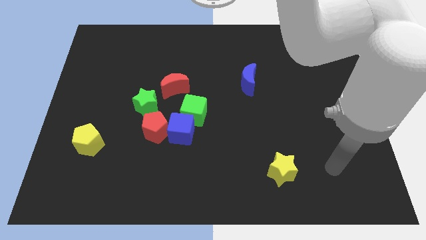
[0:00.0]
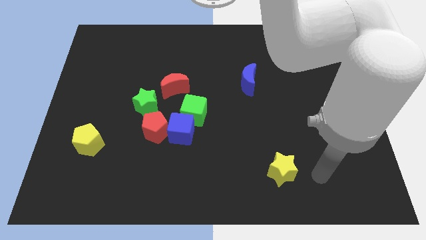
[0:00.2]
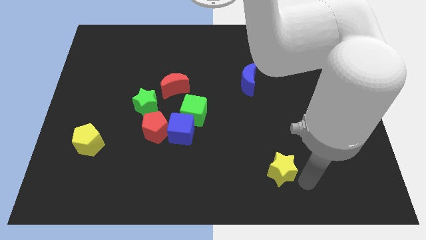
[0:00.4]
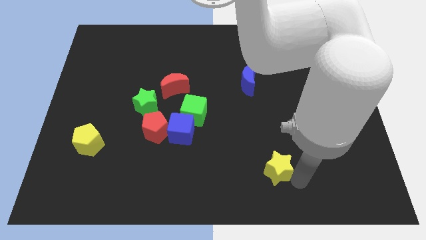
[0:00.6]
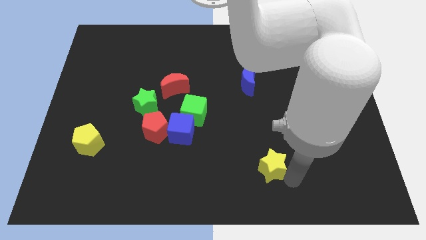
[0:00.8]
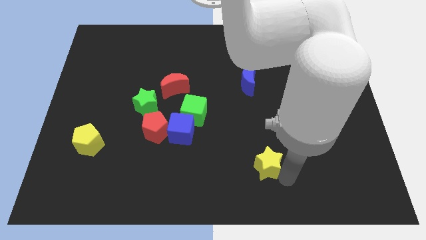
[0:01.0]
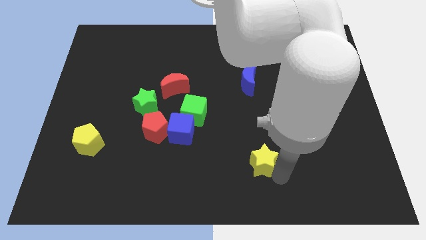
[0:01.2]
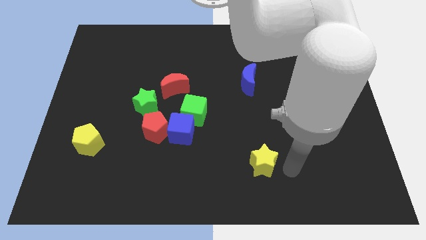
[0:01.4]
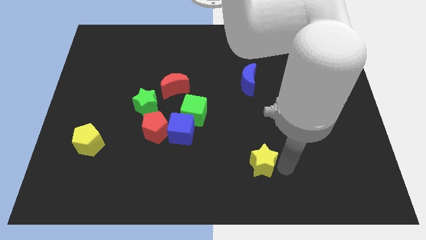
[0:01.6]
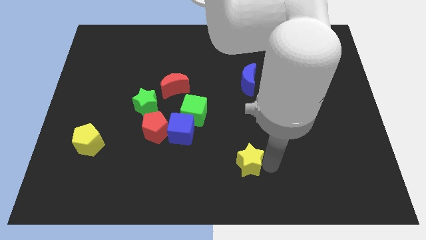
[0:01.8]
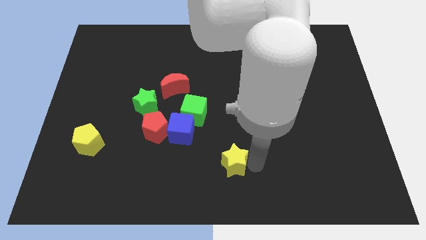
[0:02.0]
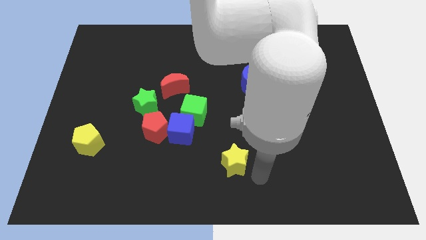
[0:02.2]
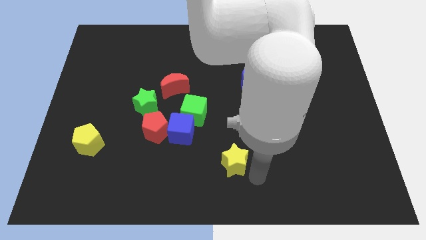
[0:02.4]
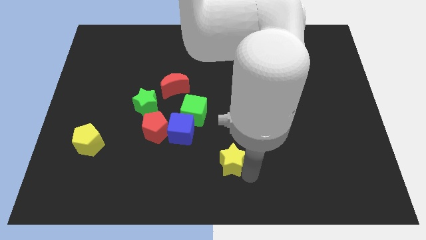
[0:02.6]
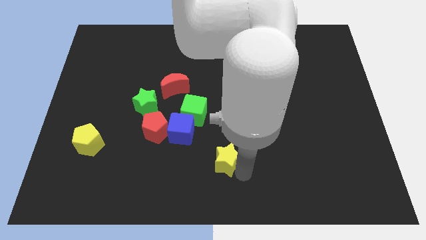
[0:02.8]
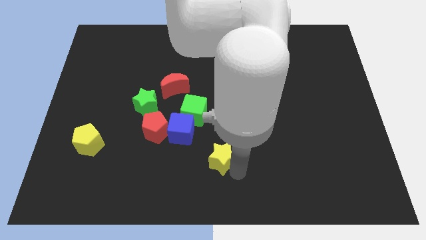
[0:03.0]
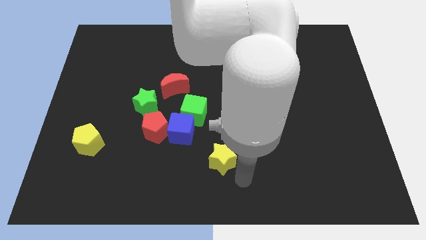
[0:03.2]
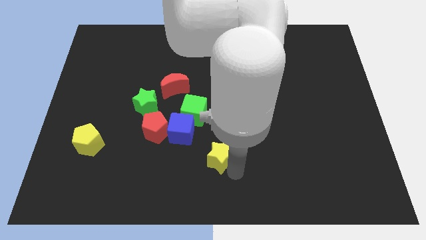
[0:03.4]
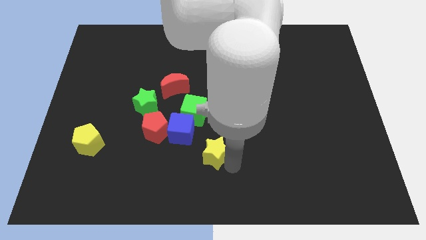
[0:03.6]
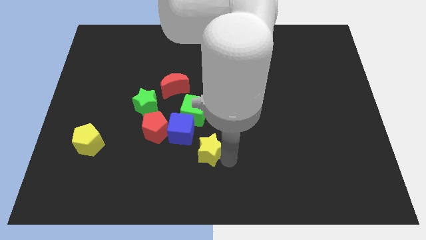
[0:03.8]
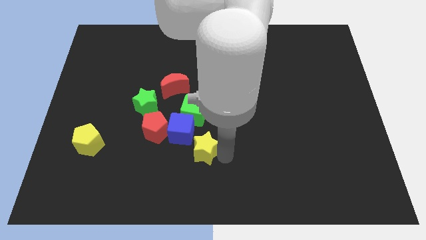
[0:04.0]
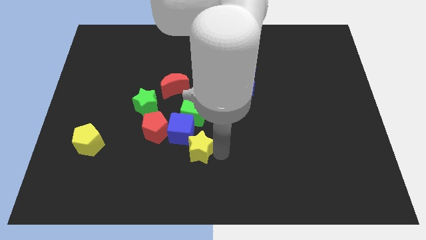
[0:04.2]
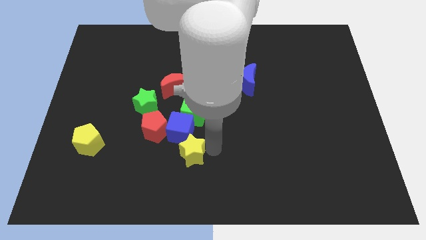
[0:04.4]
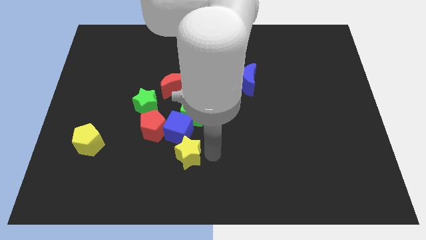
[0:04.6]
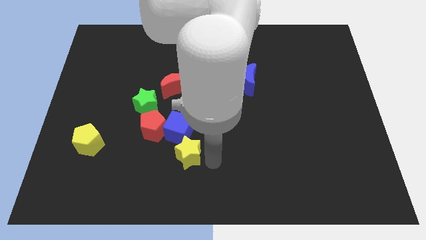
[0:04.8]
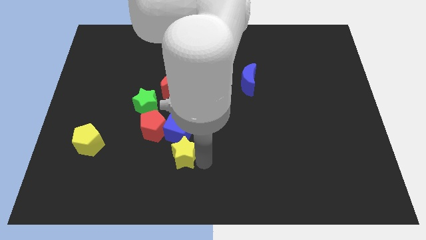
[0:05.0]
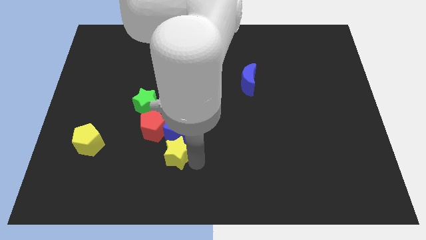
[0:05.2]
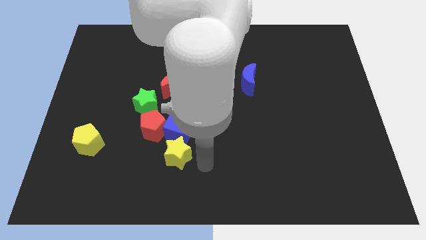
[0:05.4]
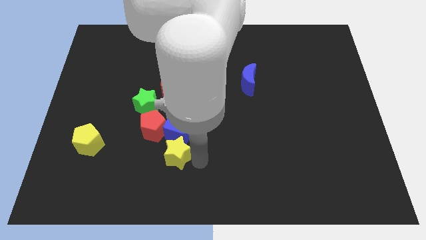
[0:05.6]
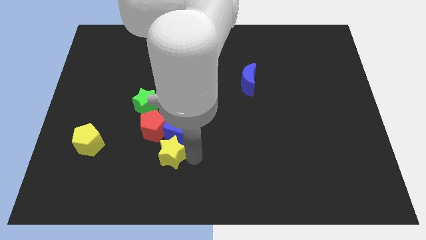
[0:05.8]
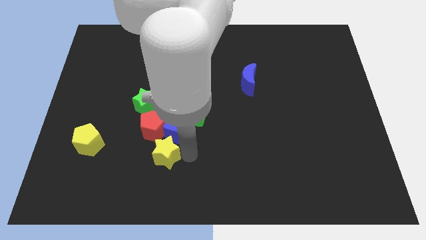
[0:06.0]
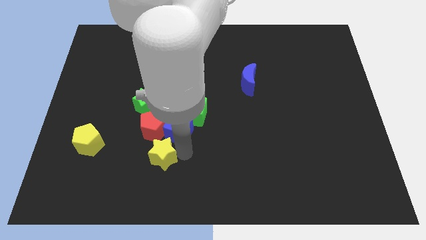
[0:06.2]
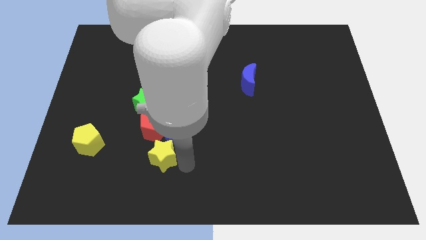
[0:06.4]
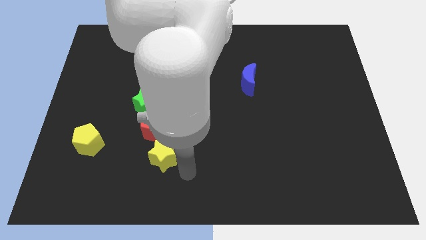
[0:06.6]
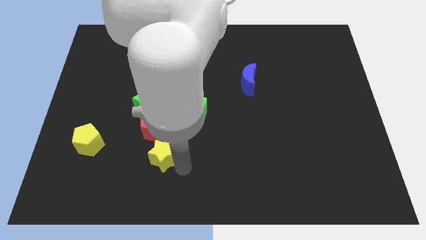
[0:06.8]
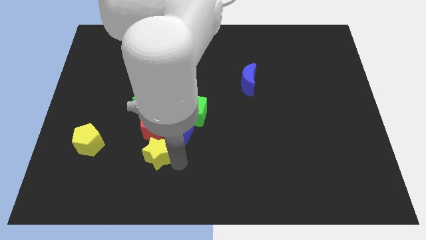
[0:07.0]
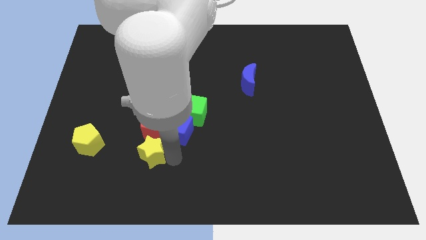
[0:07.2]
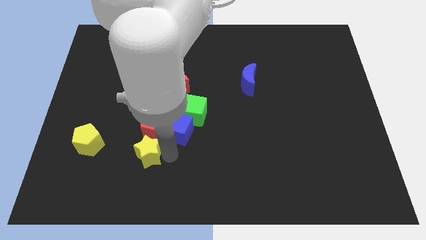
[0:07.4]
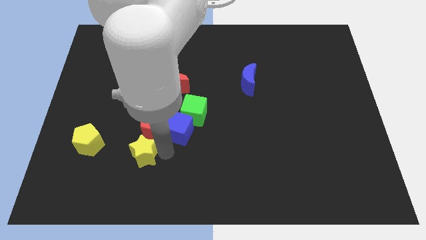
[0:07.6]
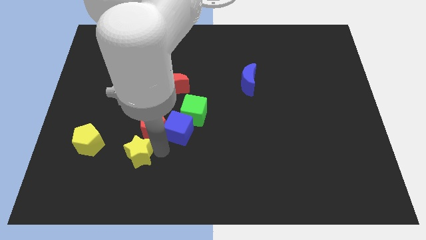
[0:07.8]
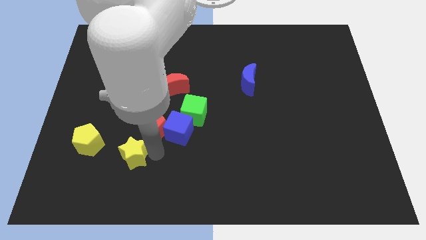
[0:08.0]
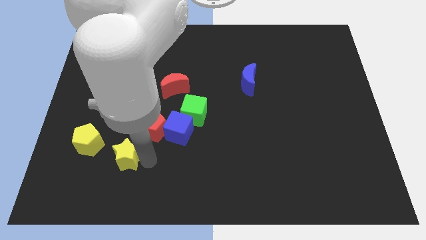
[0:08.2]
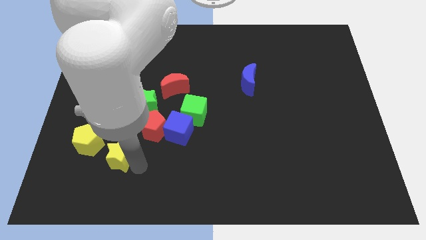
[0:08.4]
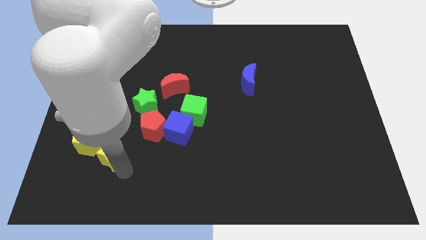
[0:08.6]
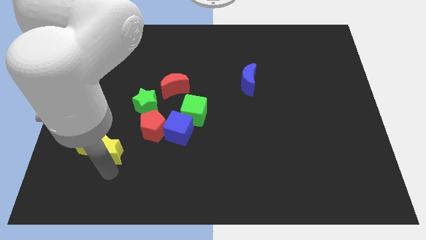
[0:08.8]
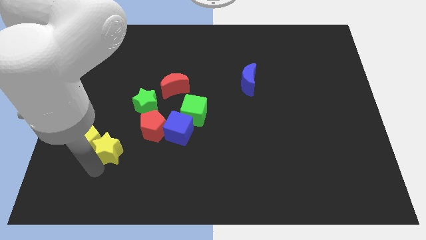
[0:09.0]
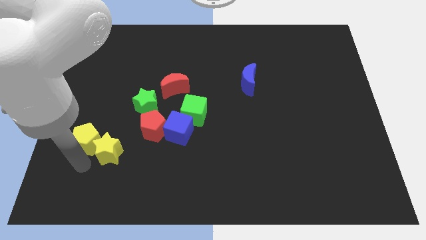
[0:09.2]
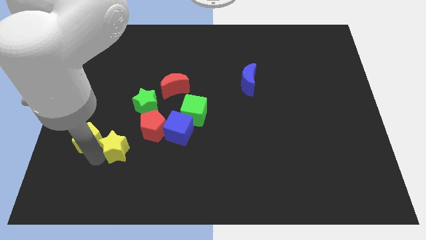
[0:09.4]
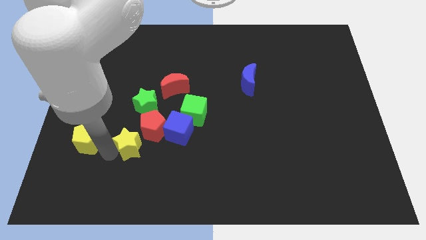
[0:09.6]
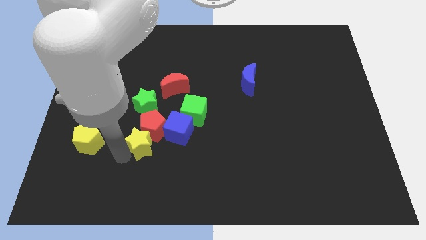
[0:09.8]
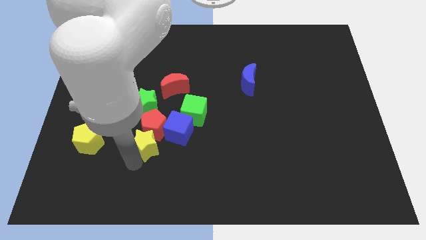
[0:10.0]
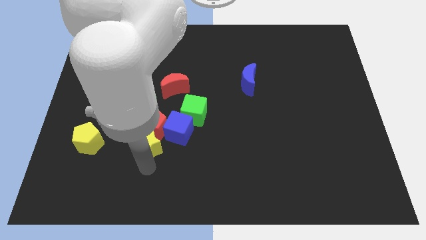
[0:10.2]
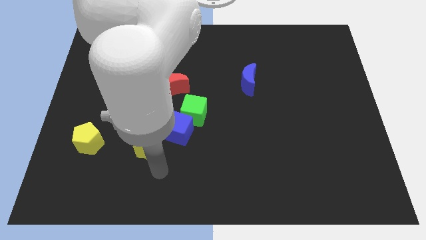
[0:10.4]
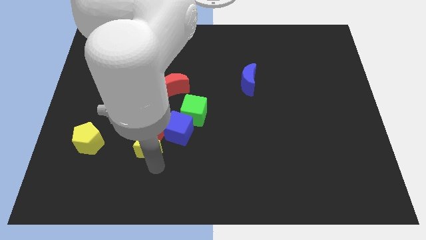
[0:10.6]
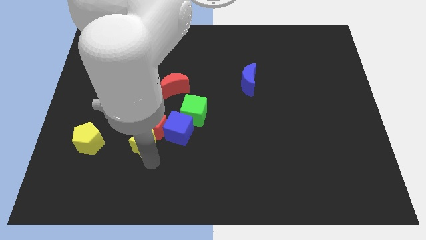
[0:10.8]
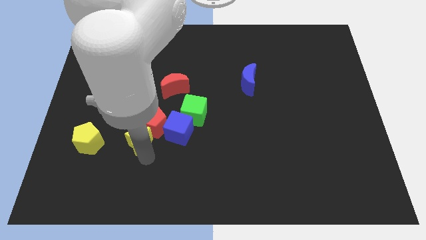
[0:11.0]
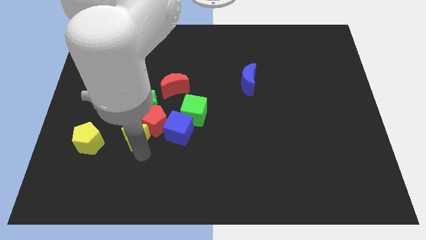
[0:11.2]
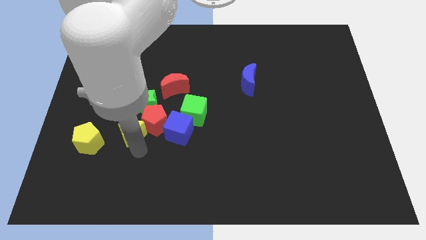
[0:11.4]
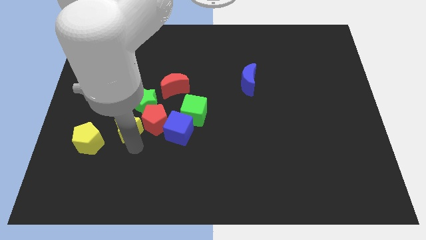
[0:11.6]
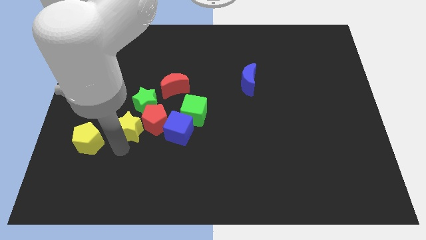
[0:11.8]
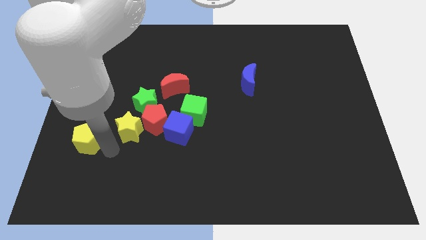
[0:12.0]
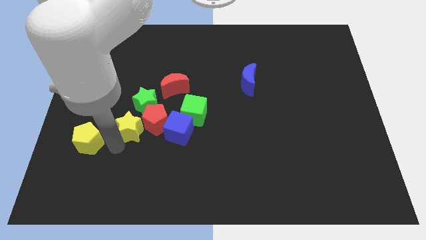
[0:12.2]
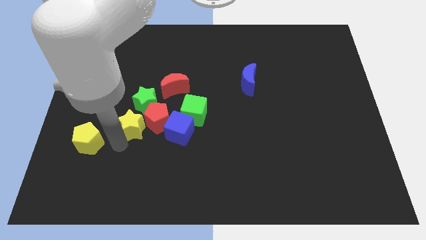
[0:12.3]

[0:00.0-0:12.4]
move the yellow star left of the green cube

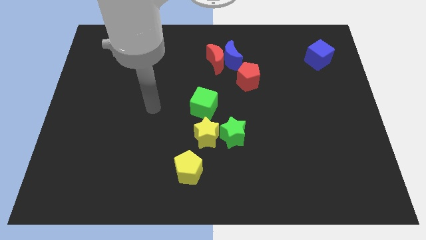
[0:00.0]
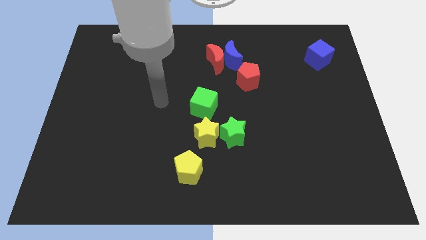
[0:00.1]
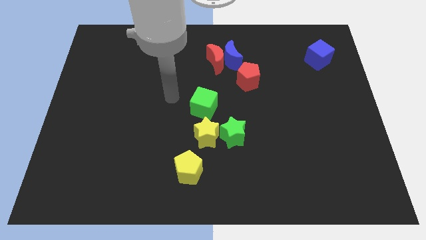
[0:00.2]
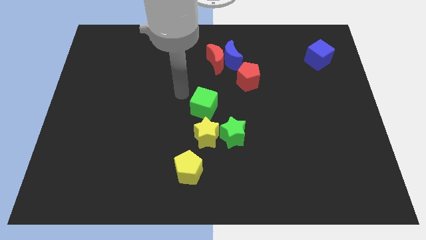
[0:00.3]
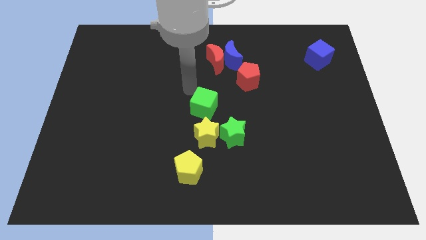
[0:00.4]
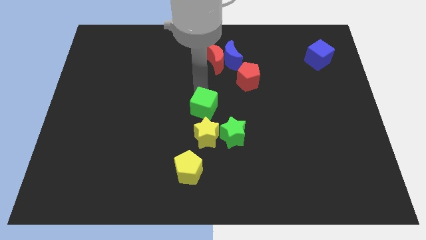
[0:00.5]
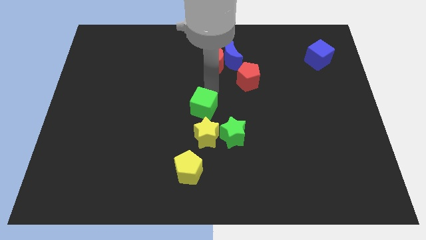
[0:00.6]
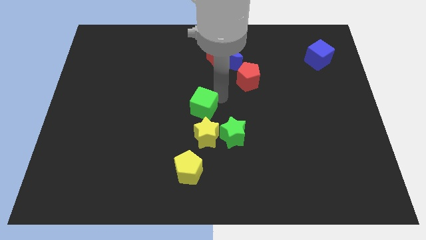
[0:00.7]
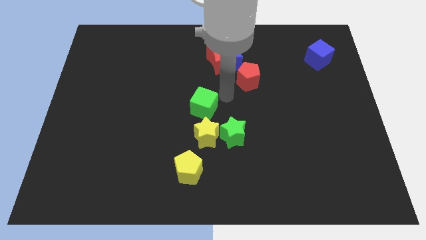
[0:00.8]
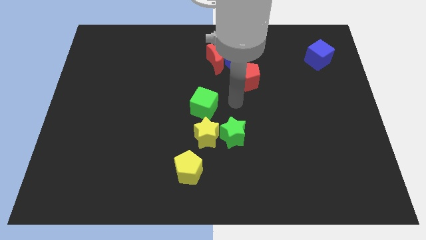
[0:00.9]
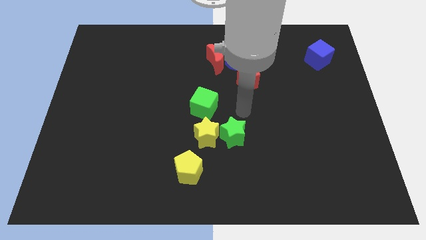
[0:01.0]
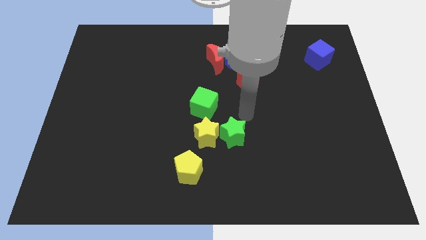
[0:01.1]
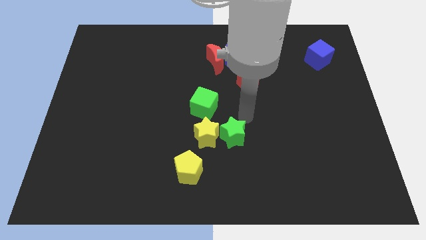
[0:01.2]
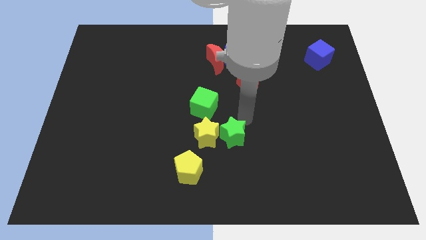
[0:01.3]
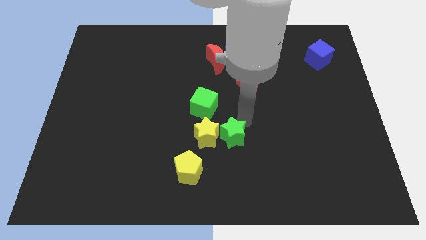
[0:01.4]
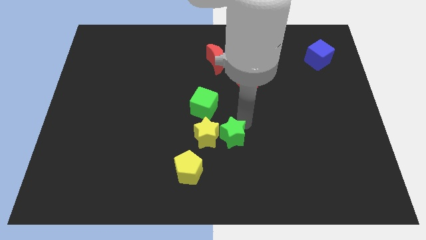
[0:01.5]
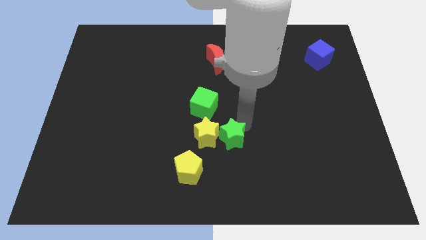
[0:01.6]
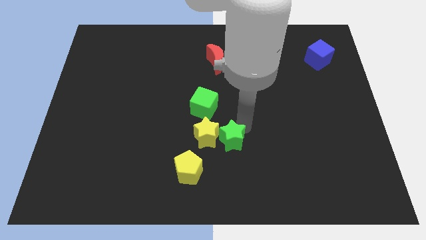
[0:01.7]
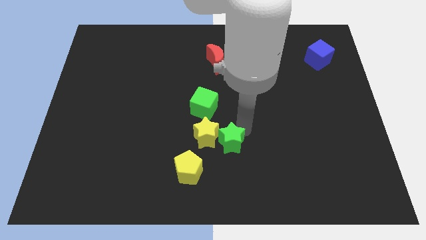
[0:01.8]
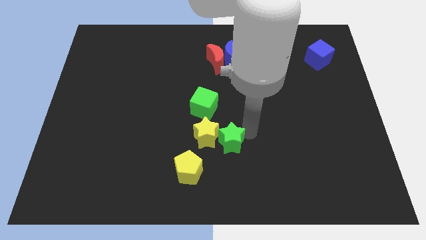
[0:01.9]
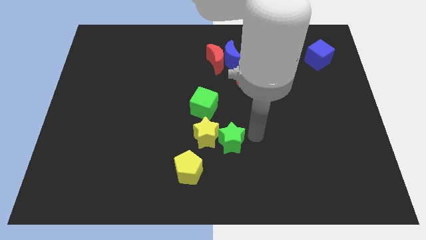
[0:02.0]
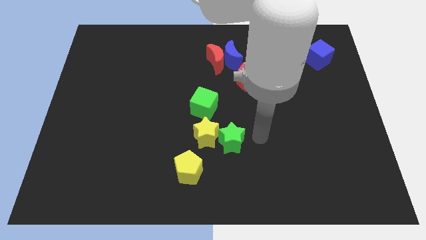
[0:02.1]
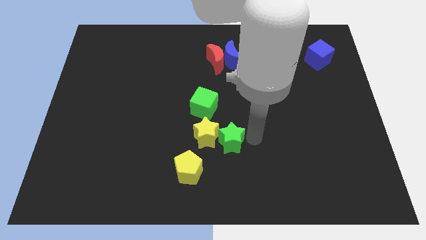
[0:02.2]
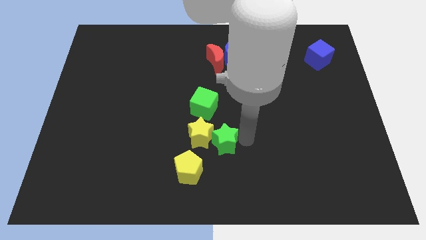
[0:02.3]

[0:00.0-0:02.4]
slide the green star below the green cube
